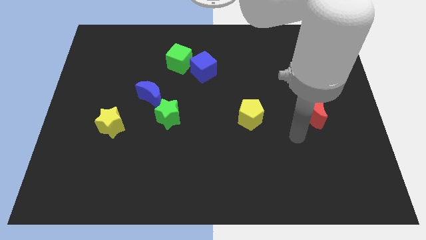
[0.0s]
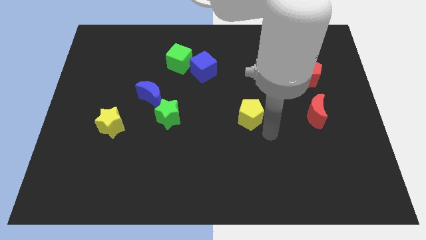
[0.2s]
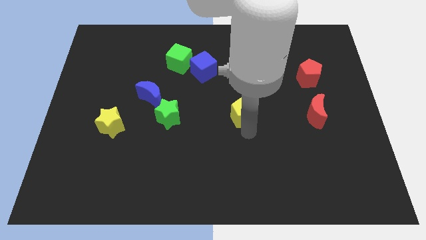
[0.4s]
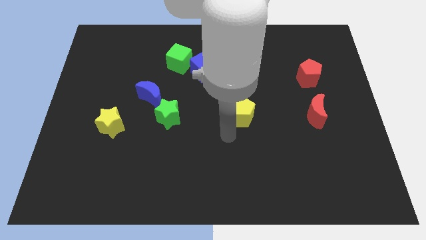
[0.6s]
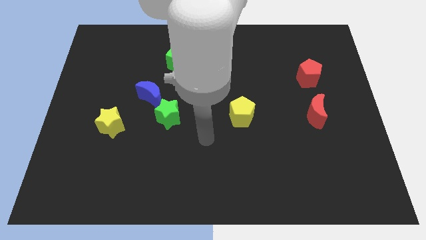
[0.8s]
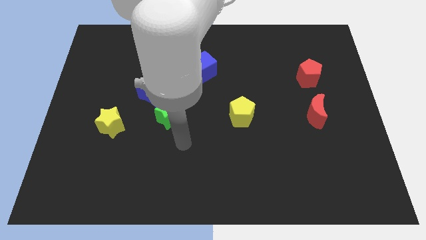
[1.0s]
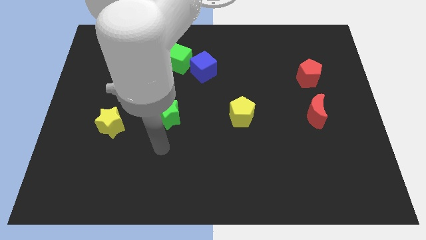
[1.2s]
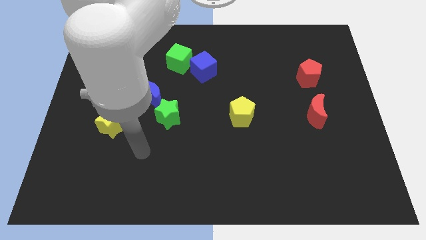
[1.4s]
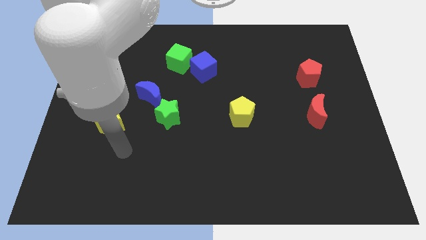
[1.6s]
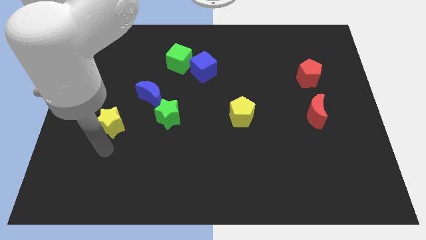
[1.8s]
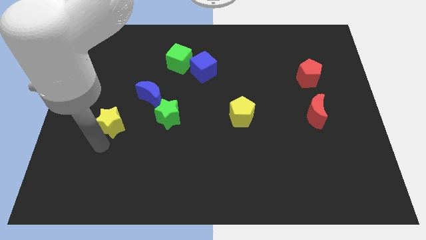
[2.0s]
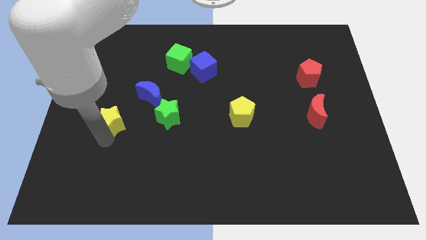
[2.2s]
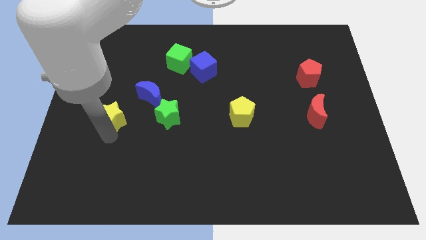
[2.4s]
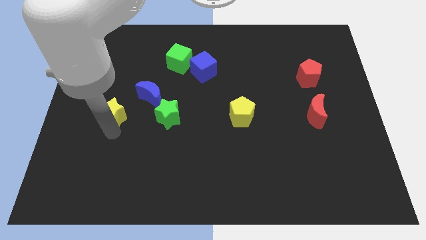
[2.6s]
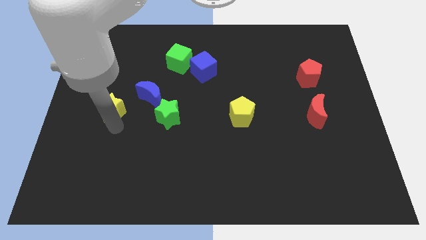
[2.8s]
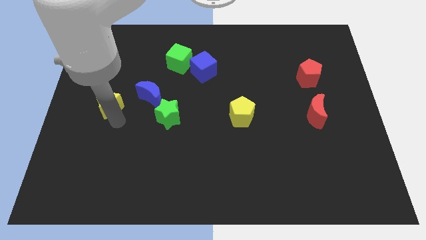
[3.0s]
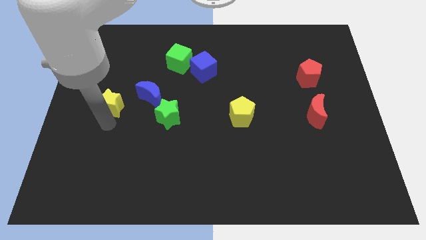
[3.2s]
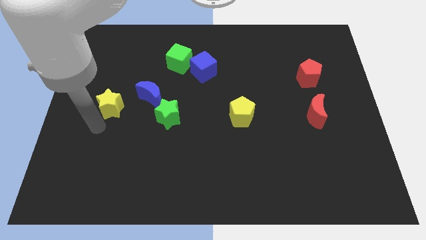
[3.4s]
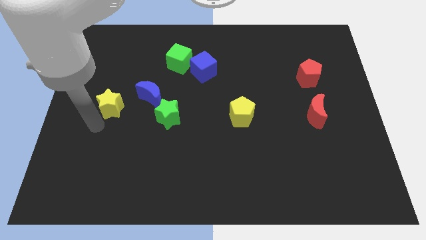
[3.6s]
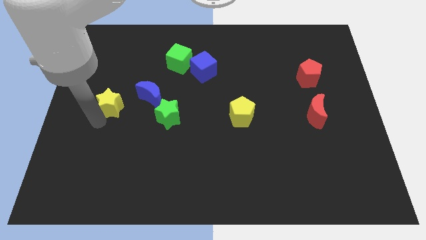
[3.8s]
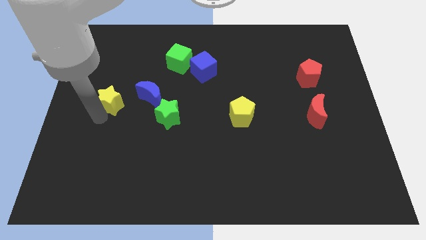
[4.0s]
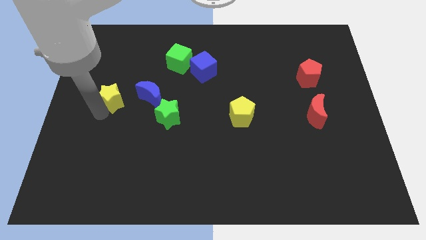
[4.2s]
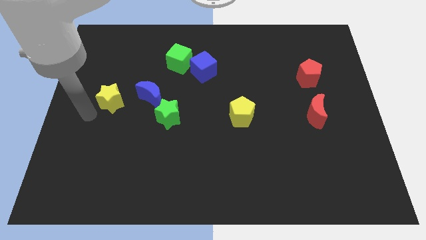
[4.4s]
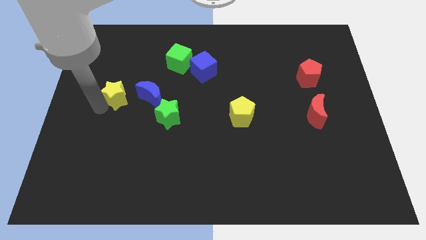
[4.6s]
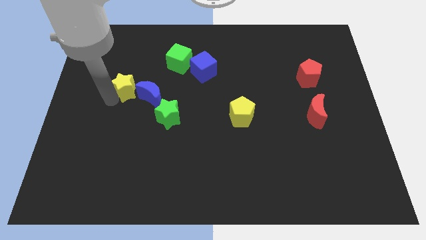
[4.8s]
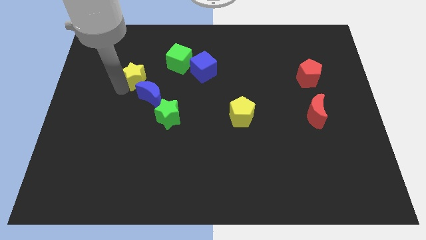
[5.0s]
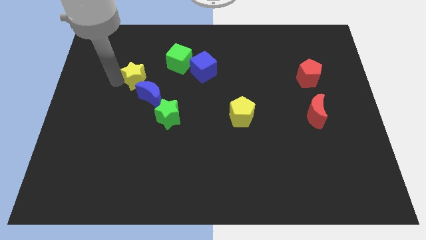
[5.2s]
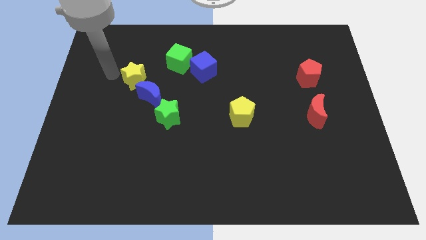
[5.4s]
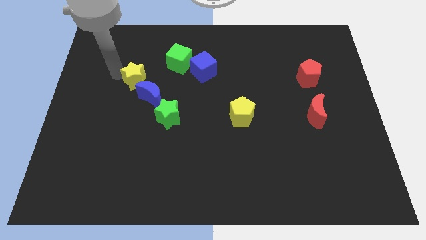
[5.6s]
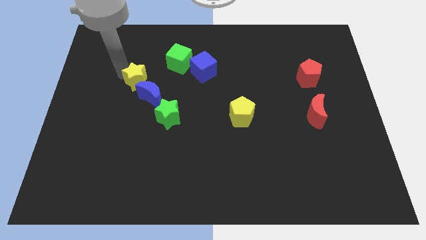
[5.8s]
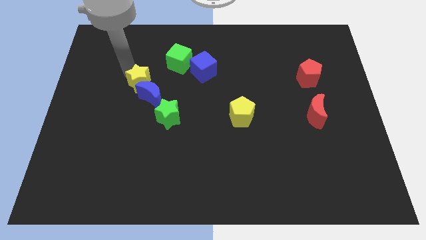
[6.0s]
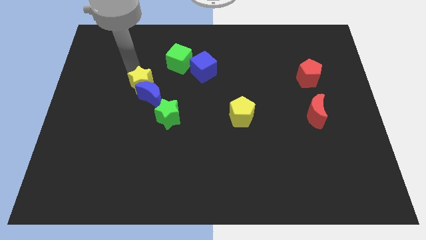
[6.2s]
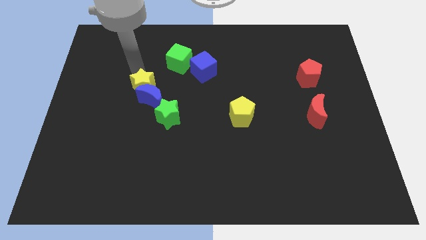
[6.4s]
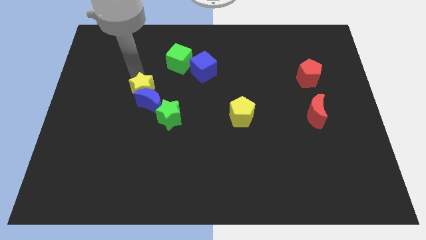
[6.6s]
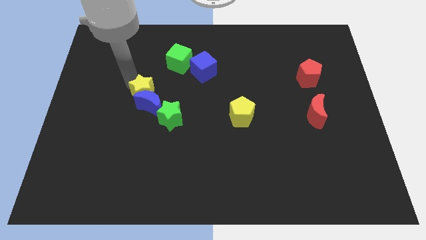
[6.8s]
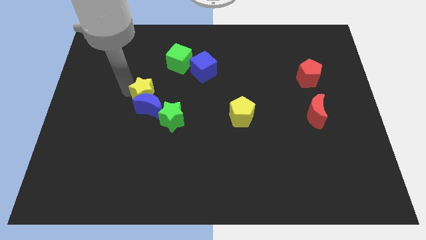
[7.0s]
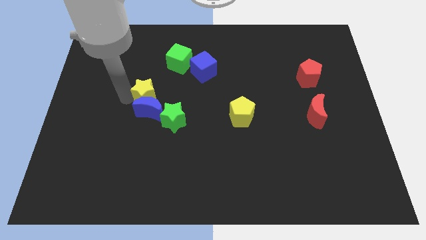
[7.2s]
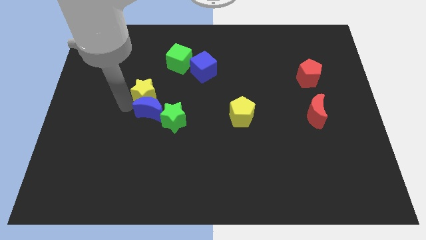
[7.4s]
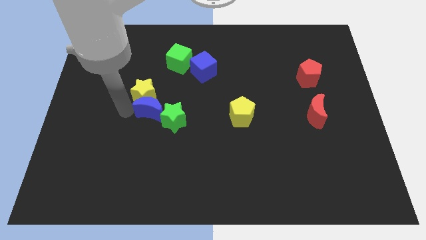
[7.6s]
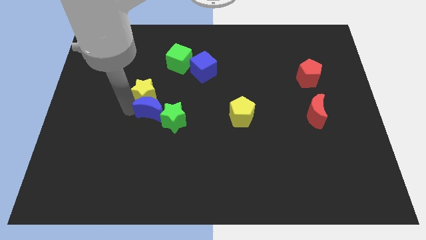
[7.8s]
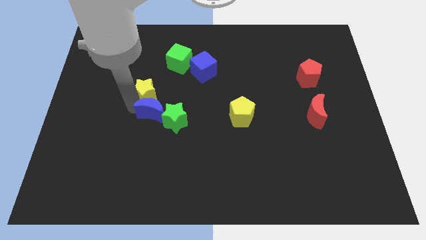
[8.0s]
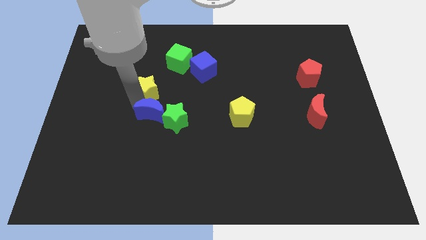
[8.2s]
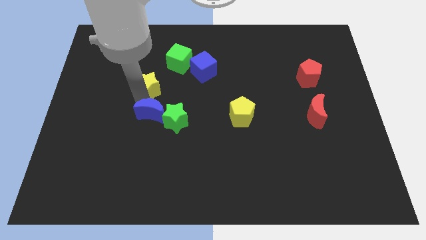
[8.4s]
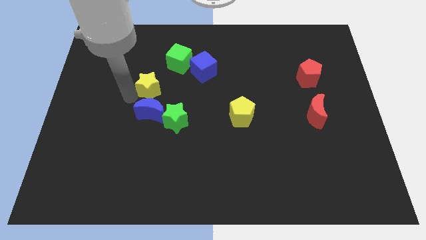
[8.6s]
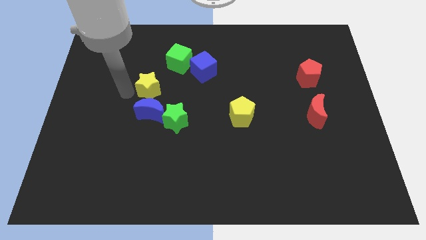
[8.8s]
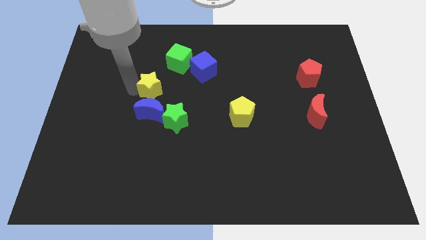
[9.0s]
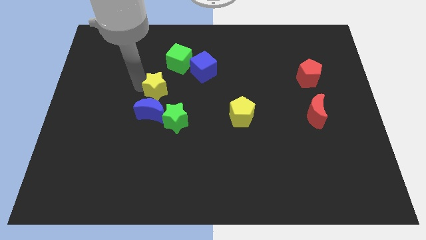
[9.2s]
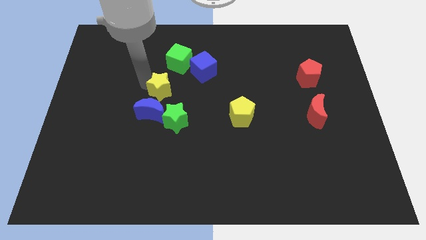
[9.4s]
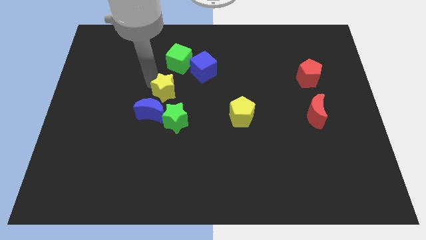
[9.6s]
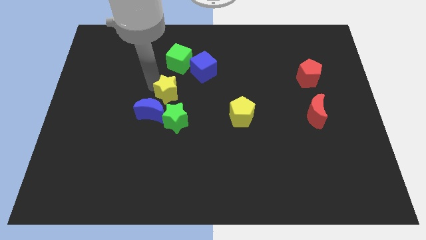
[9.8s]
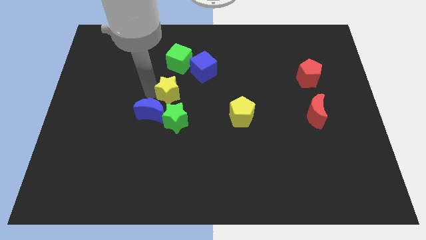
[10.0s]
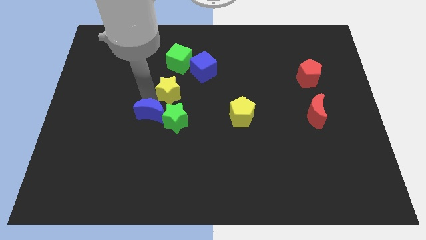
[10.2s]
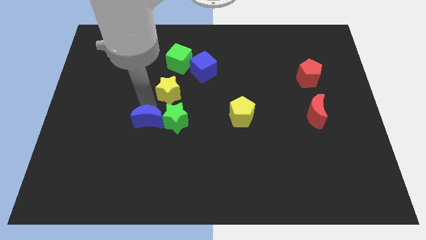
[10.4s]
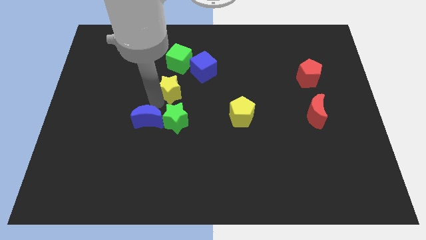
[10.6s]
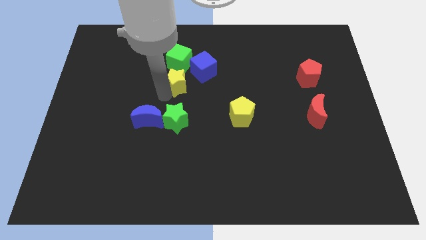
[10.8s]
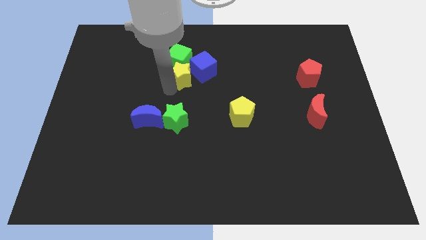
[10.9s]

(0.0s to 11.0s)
move the yellow star towards the blue cube

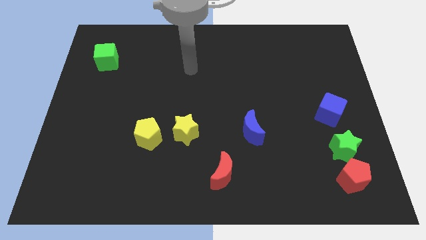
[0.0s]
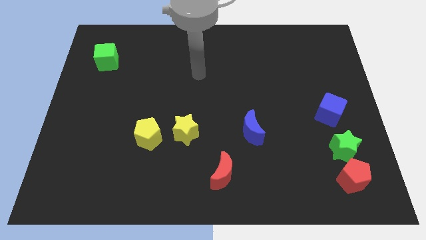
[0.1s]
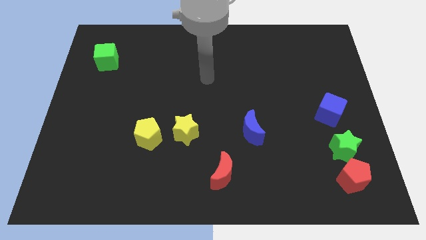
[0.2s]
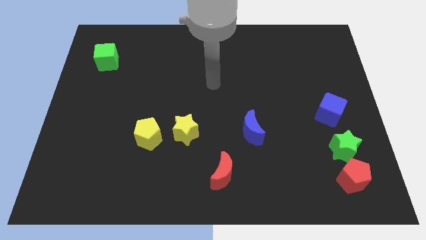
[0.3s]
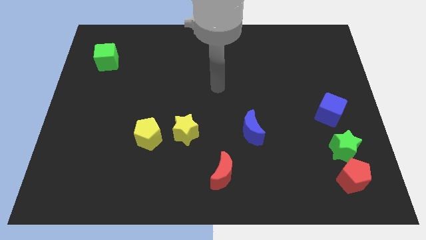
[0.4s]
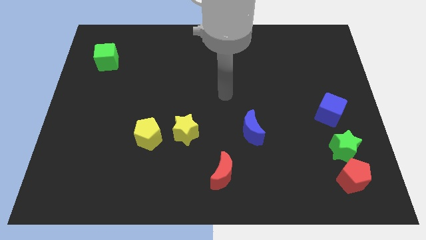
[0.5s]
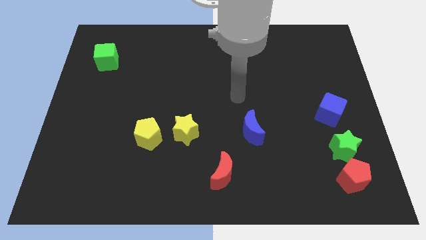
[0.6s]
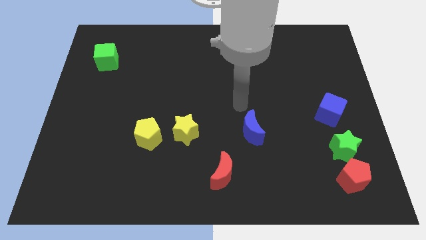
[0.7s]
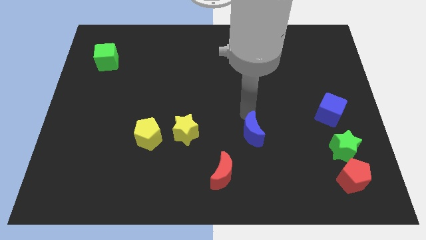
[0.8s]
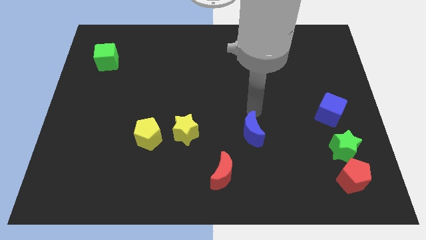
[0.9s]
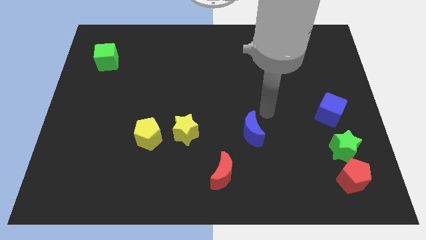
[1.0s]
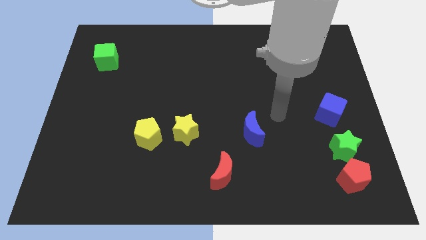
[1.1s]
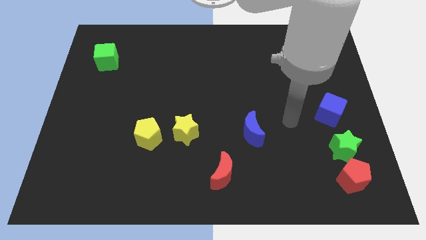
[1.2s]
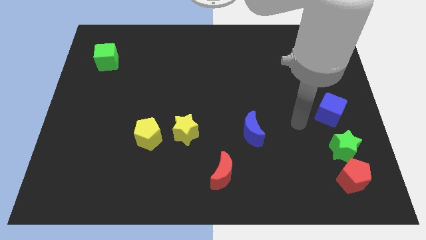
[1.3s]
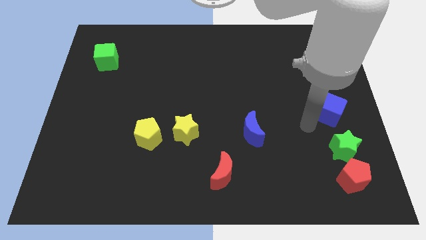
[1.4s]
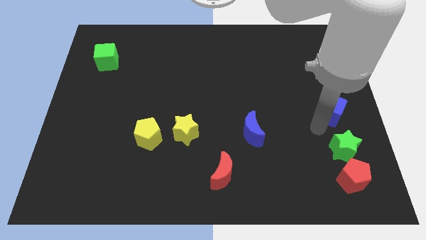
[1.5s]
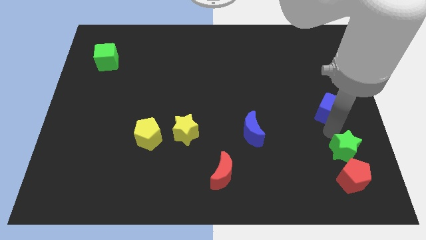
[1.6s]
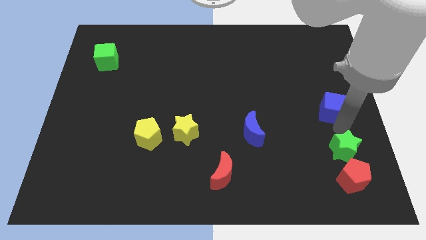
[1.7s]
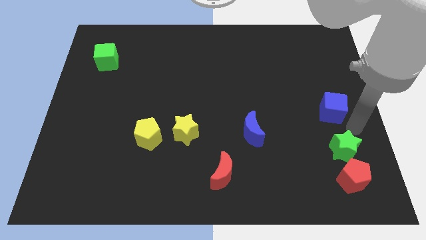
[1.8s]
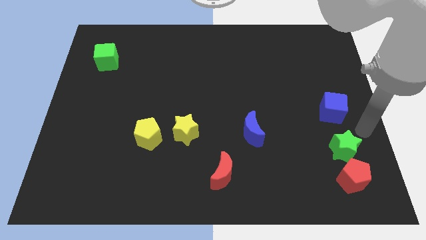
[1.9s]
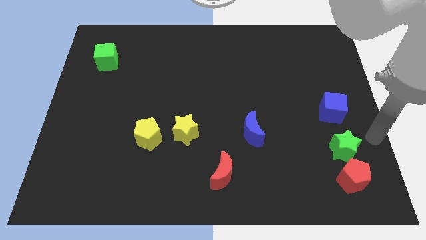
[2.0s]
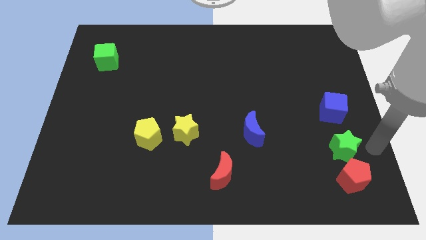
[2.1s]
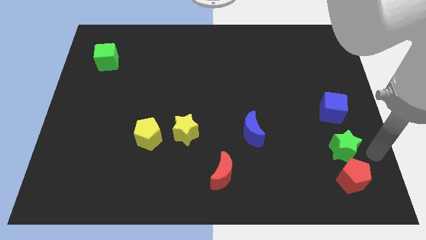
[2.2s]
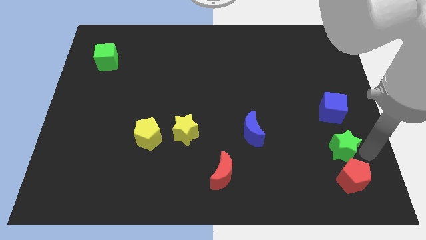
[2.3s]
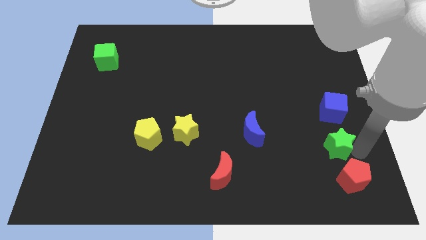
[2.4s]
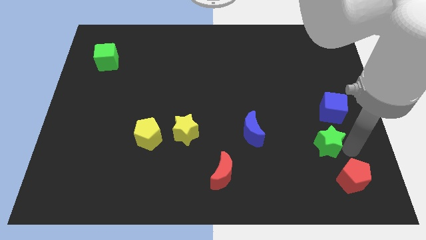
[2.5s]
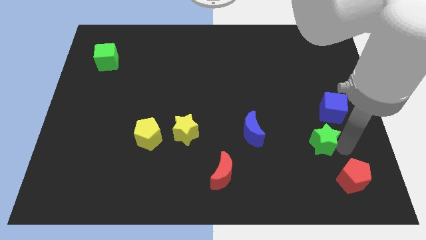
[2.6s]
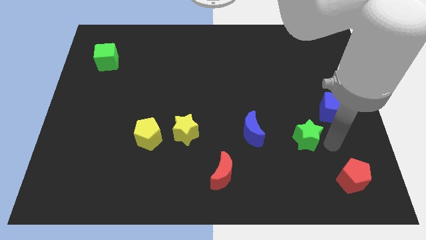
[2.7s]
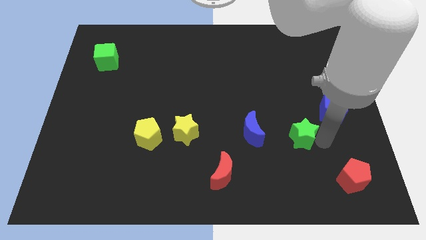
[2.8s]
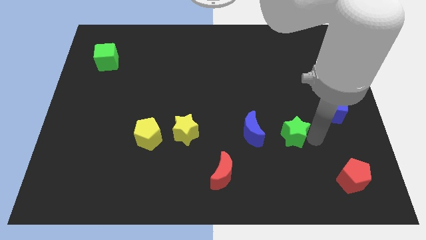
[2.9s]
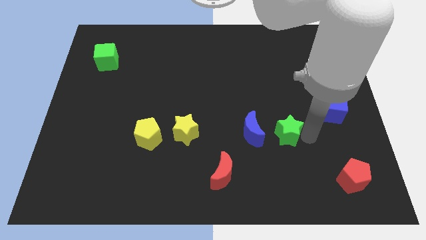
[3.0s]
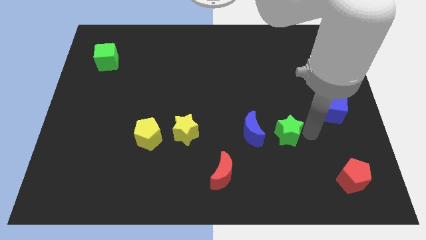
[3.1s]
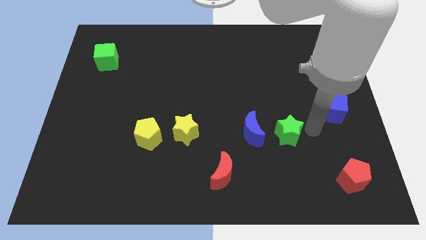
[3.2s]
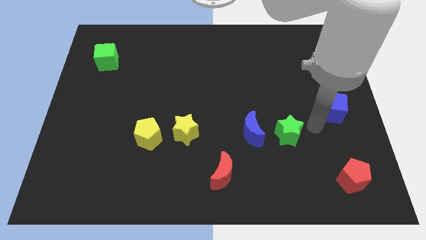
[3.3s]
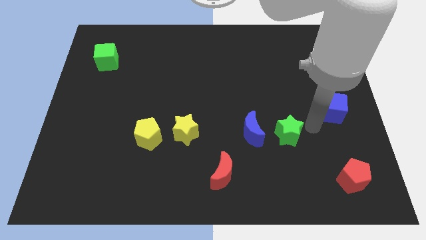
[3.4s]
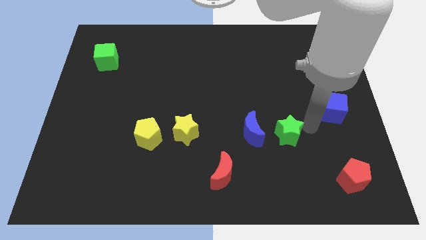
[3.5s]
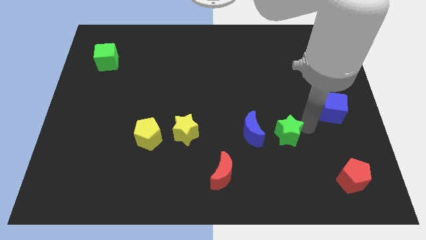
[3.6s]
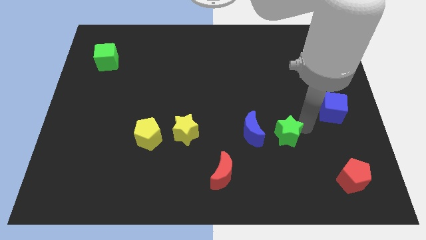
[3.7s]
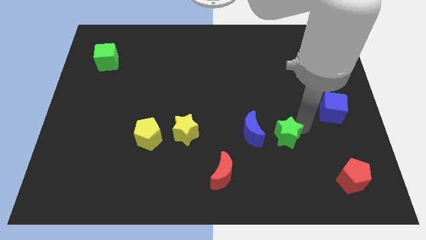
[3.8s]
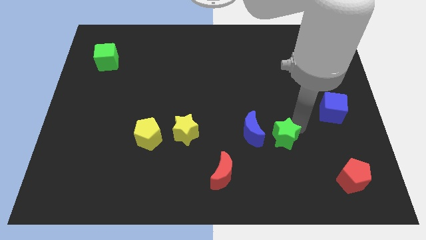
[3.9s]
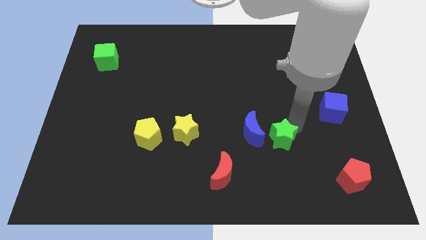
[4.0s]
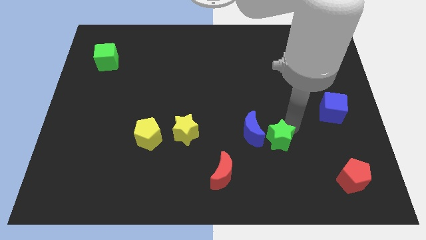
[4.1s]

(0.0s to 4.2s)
put the green star to the blue moon
